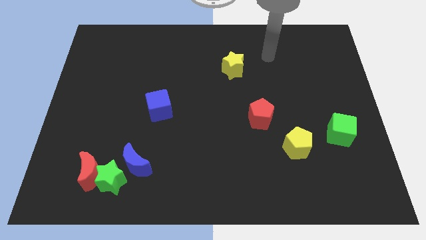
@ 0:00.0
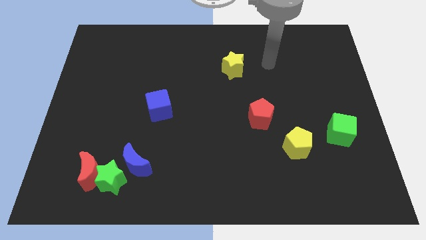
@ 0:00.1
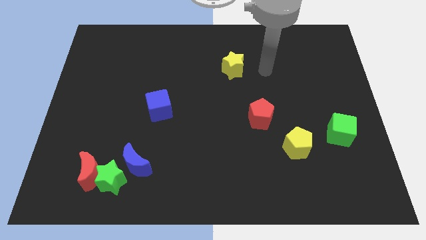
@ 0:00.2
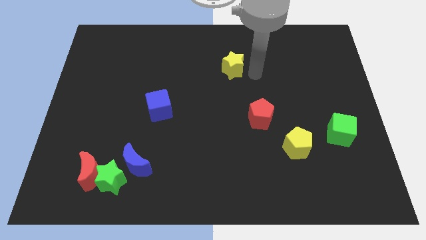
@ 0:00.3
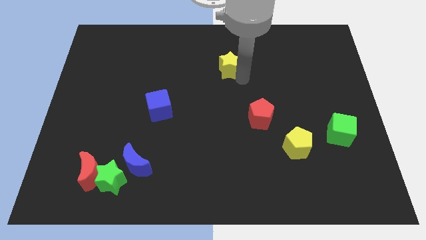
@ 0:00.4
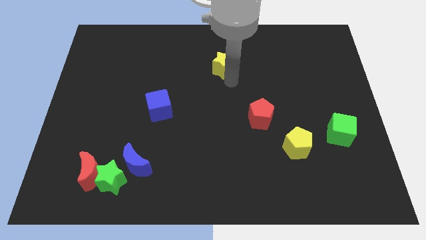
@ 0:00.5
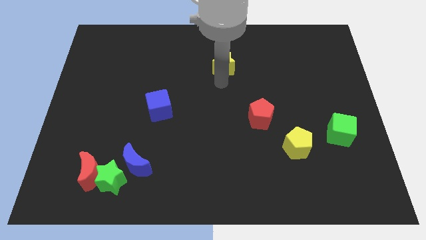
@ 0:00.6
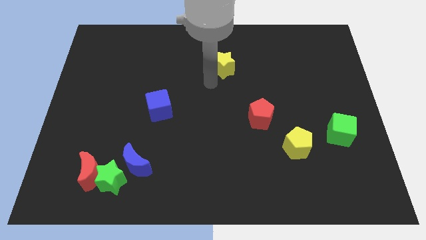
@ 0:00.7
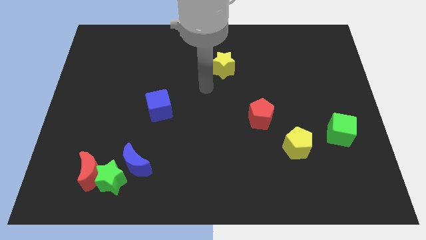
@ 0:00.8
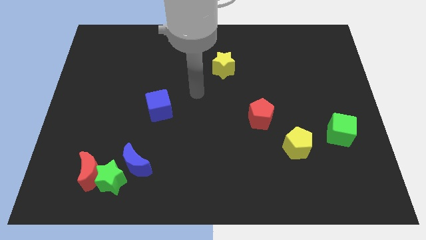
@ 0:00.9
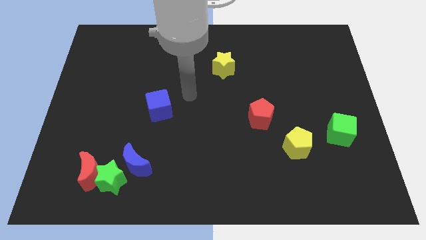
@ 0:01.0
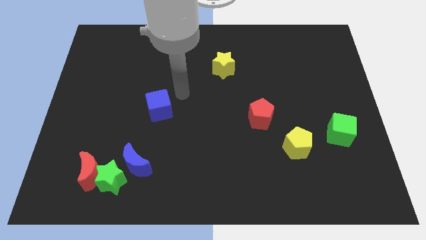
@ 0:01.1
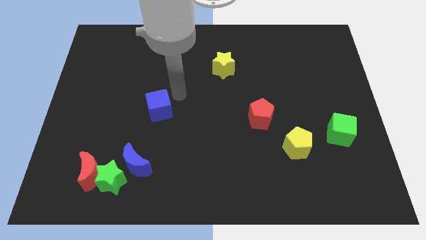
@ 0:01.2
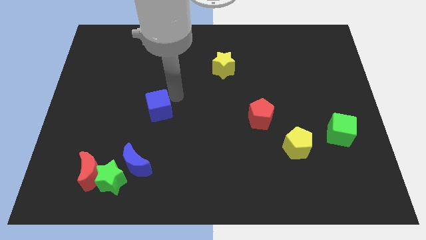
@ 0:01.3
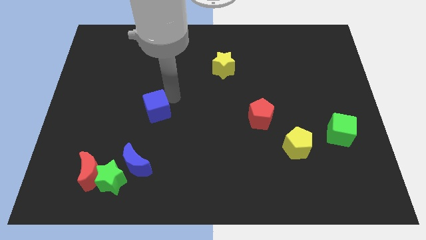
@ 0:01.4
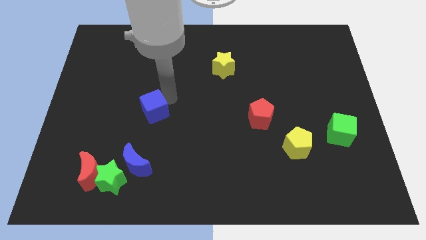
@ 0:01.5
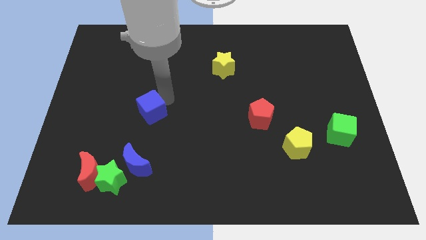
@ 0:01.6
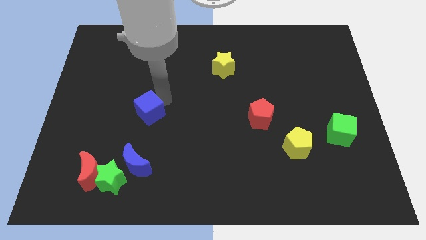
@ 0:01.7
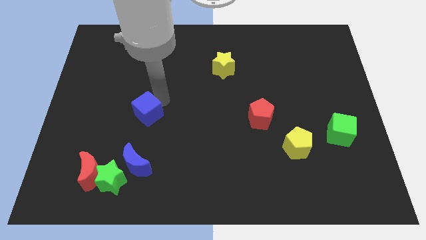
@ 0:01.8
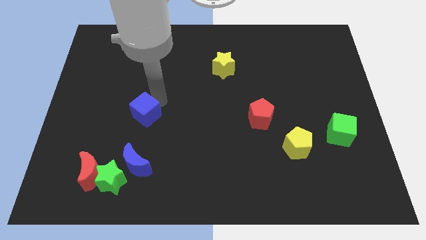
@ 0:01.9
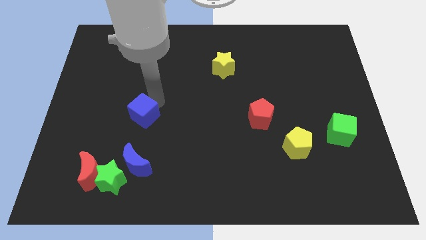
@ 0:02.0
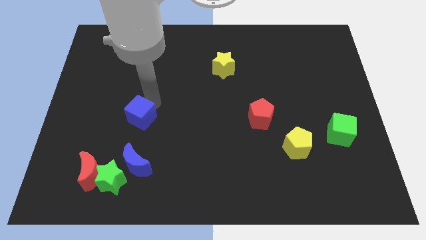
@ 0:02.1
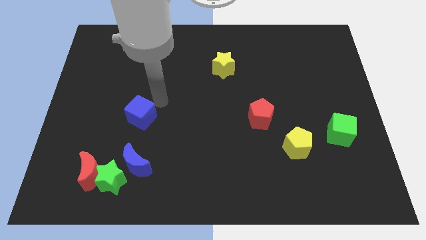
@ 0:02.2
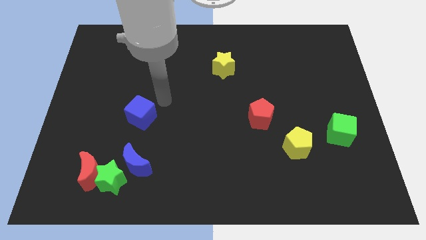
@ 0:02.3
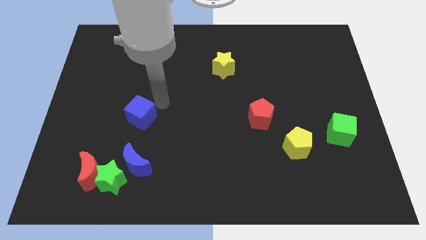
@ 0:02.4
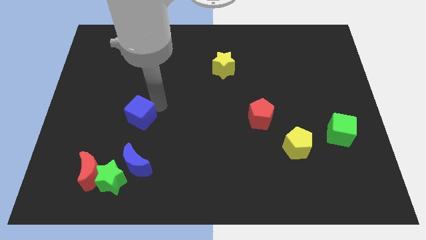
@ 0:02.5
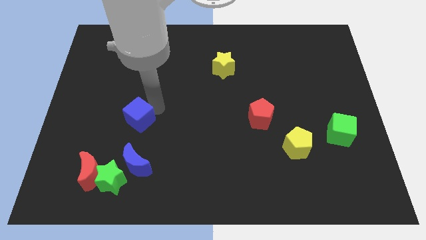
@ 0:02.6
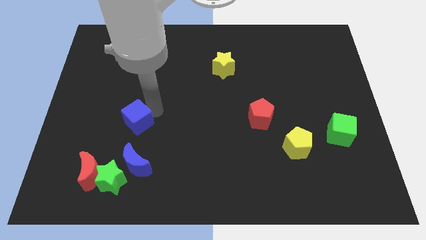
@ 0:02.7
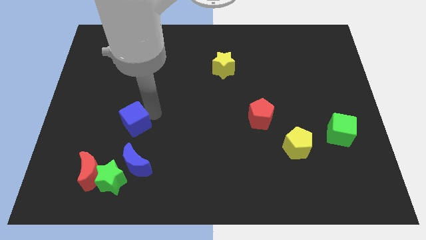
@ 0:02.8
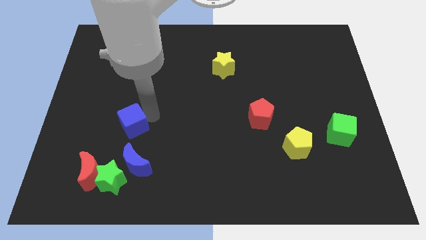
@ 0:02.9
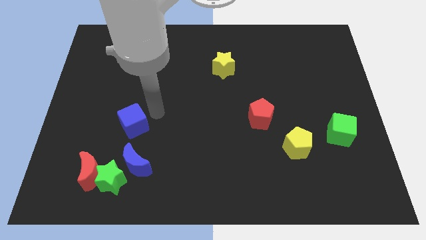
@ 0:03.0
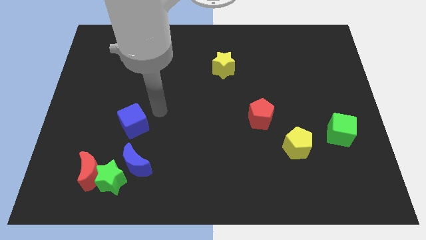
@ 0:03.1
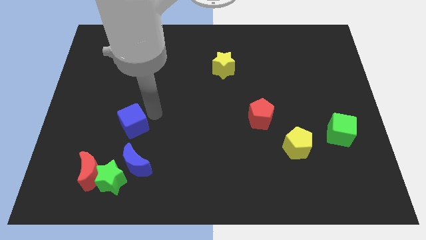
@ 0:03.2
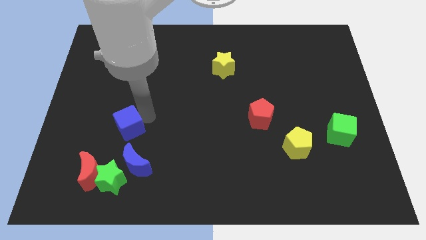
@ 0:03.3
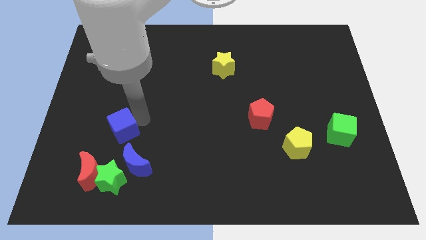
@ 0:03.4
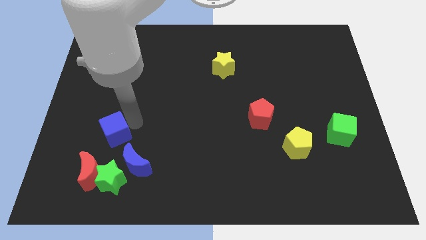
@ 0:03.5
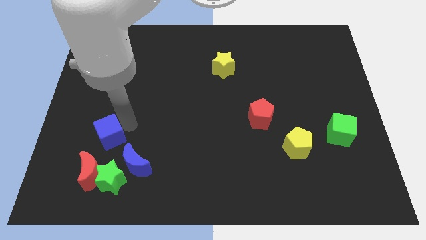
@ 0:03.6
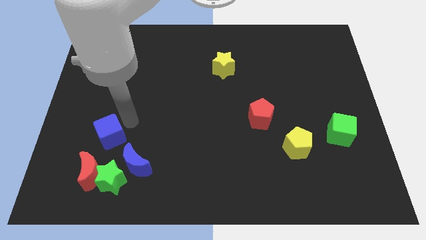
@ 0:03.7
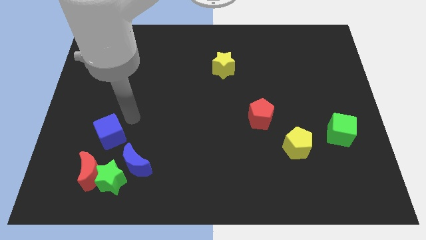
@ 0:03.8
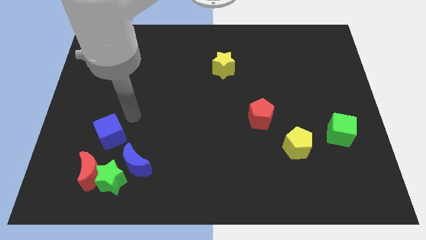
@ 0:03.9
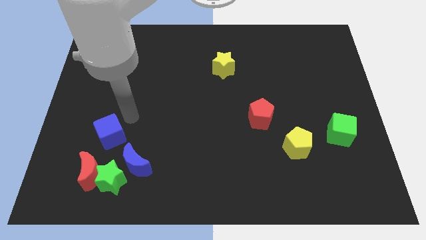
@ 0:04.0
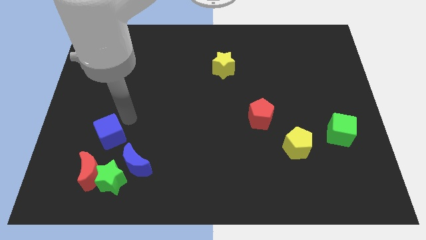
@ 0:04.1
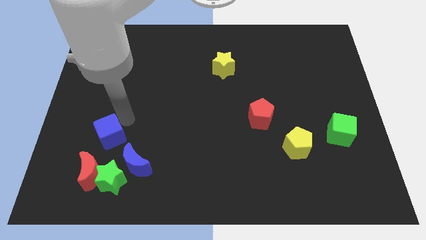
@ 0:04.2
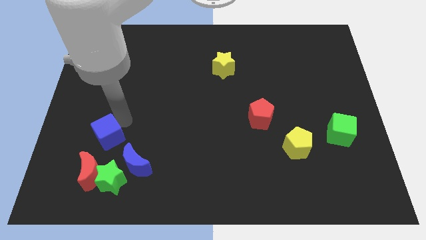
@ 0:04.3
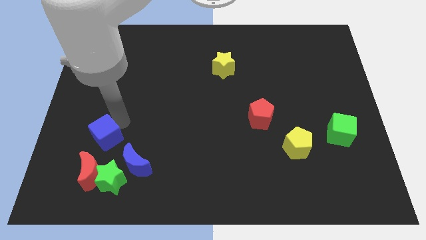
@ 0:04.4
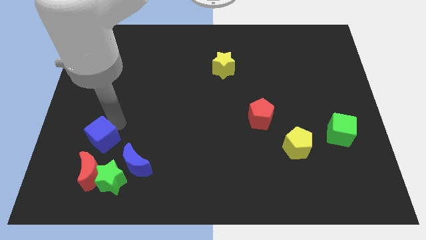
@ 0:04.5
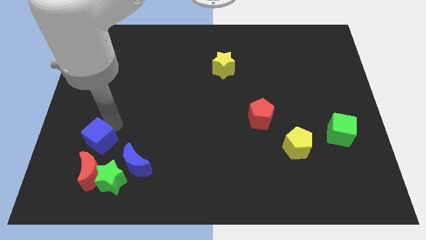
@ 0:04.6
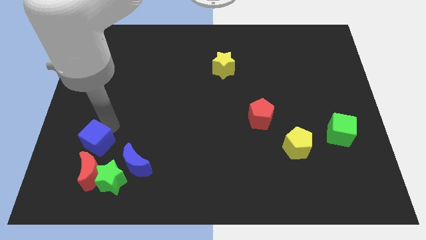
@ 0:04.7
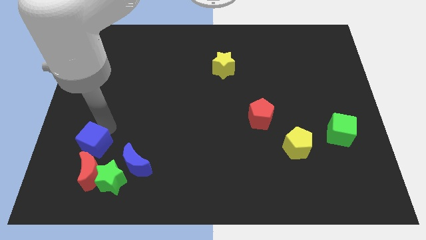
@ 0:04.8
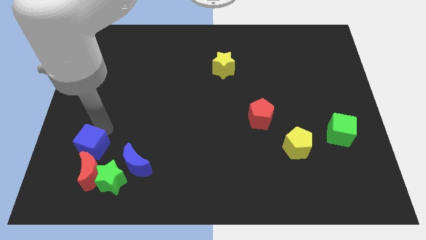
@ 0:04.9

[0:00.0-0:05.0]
put the blue cube to the left side of the blue moon

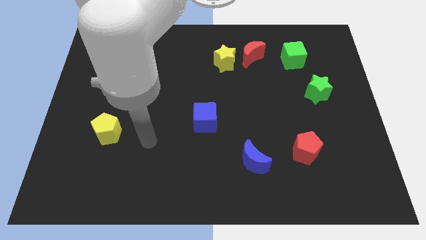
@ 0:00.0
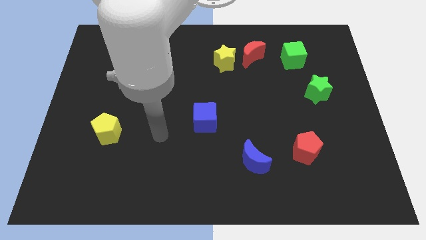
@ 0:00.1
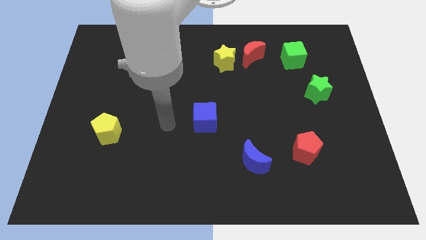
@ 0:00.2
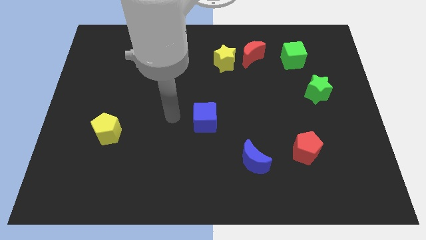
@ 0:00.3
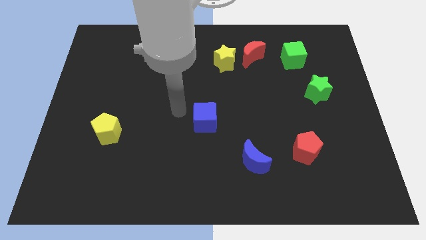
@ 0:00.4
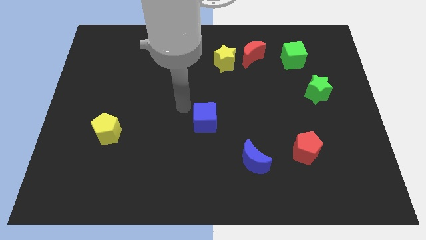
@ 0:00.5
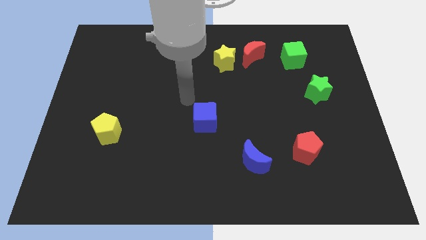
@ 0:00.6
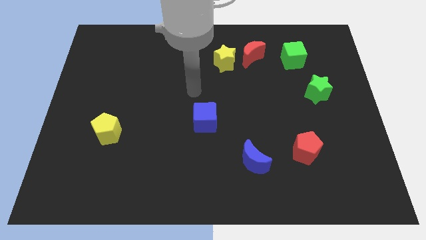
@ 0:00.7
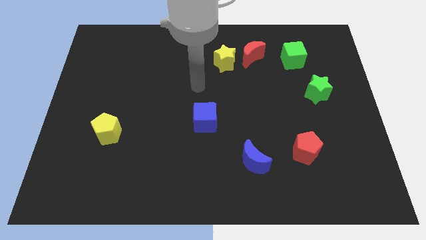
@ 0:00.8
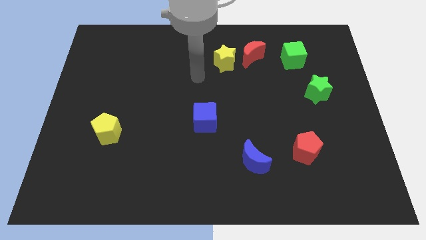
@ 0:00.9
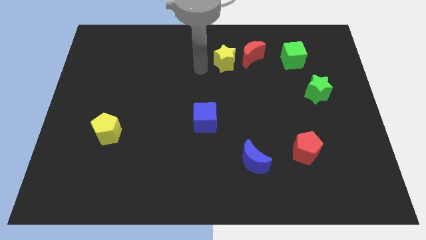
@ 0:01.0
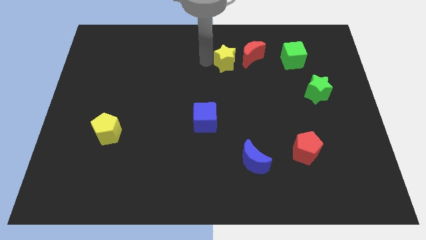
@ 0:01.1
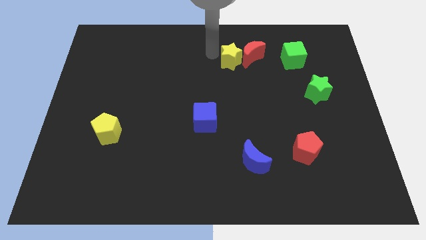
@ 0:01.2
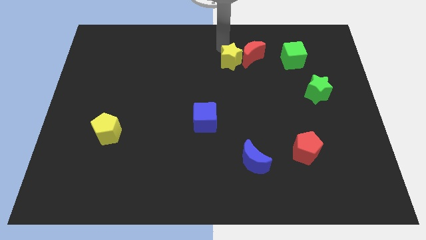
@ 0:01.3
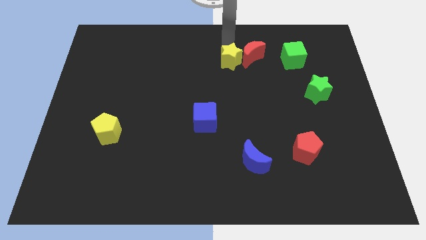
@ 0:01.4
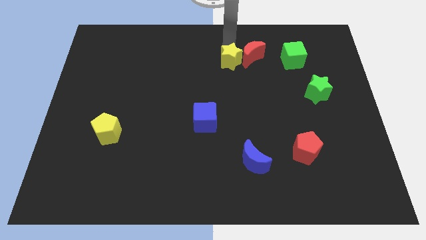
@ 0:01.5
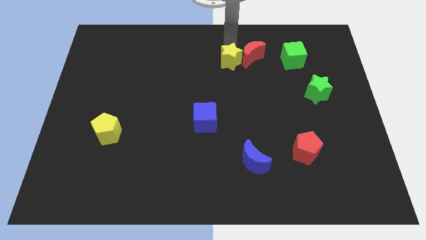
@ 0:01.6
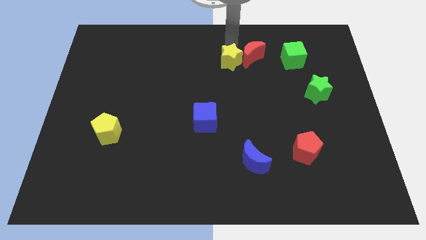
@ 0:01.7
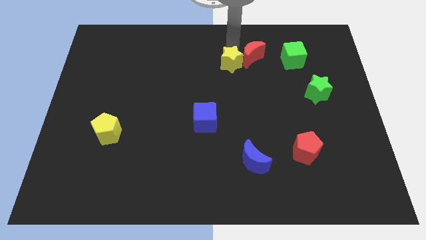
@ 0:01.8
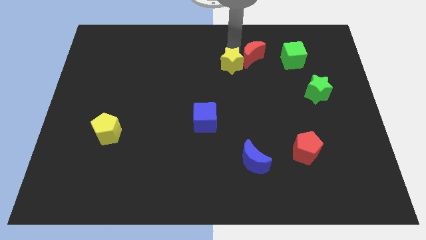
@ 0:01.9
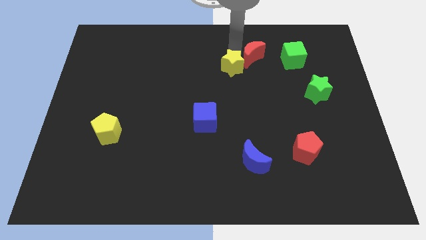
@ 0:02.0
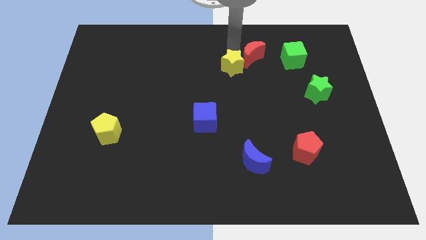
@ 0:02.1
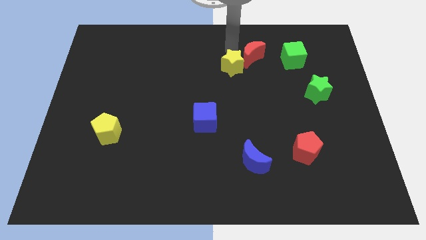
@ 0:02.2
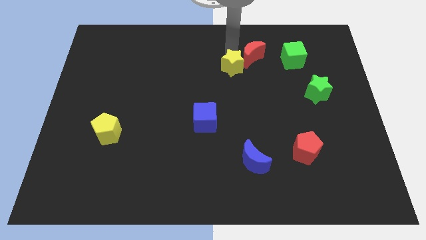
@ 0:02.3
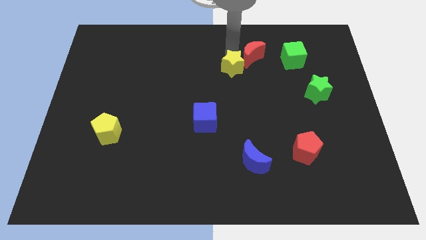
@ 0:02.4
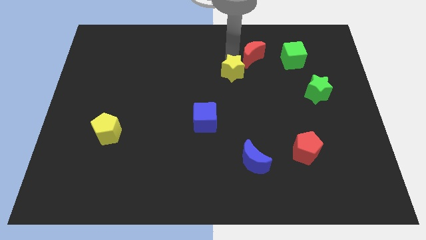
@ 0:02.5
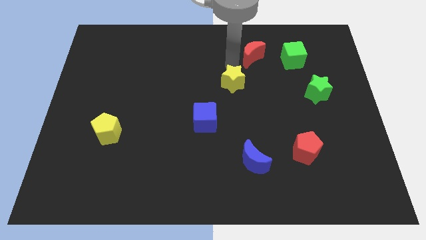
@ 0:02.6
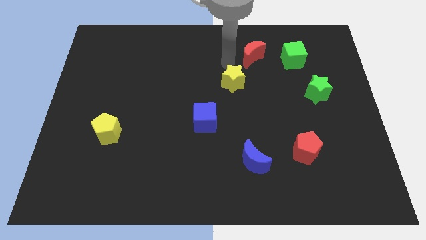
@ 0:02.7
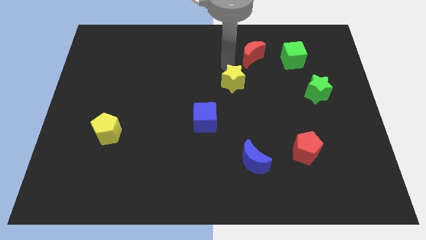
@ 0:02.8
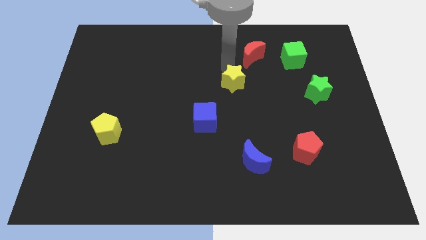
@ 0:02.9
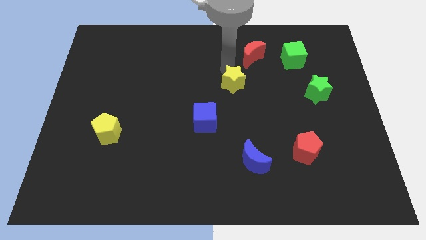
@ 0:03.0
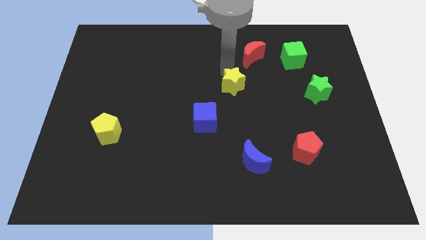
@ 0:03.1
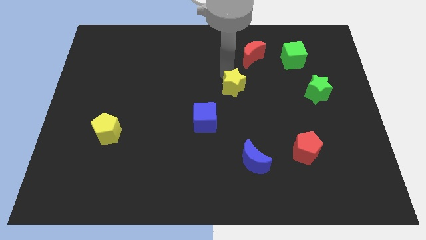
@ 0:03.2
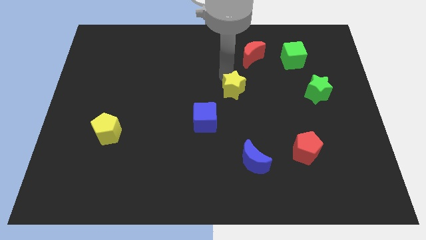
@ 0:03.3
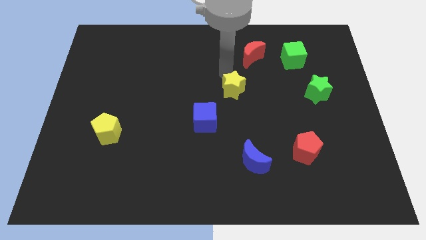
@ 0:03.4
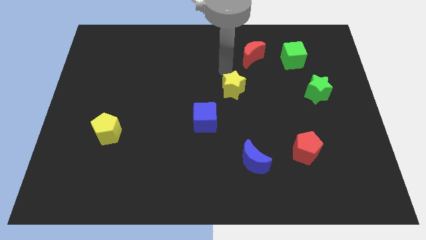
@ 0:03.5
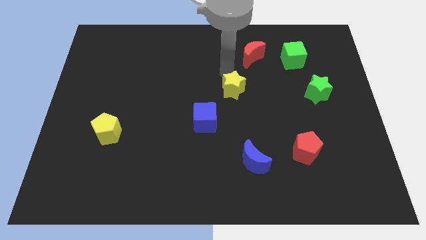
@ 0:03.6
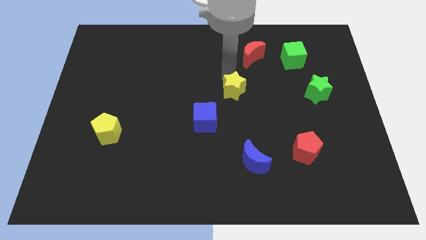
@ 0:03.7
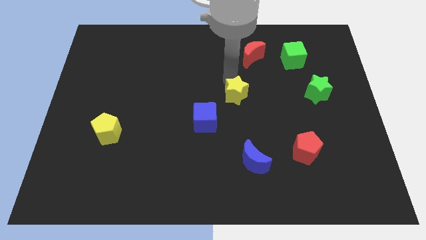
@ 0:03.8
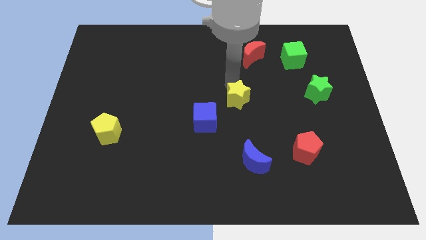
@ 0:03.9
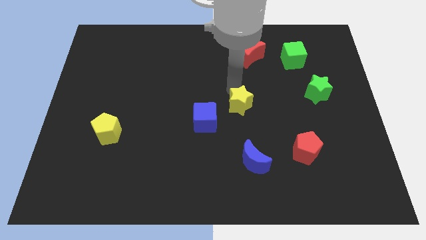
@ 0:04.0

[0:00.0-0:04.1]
push the yellow star to the right of the blue cube
